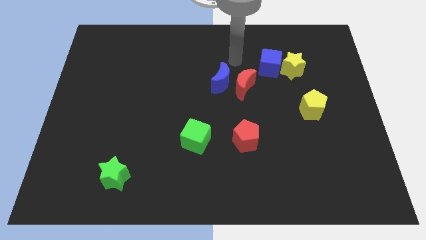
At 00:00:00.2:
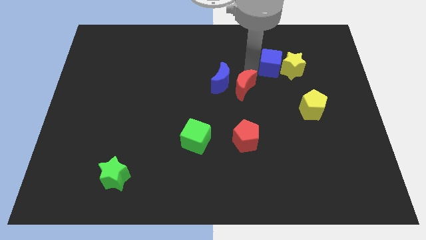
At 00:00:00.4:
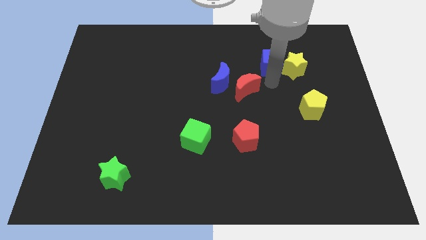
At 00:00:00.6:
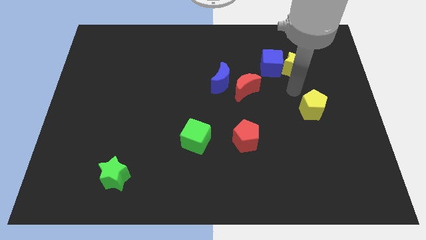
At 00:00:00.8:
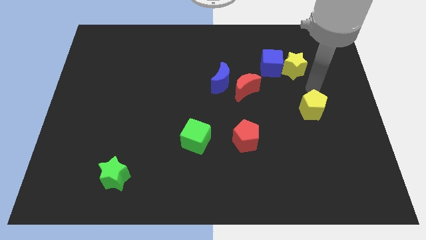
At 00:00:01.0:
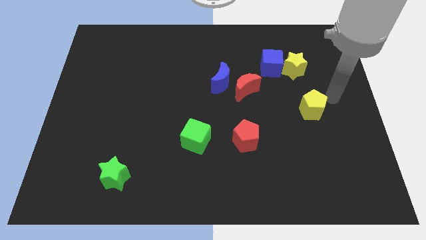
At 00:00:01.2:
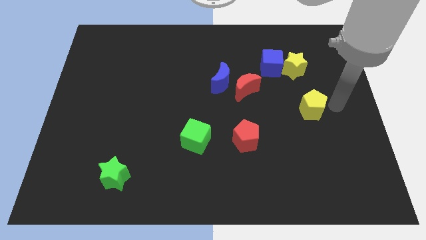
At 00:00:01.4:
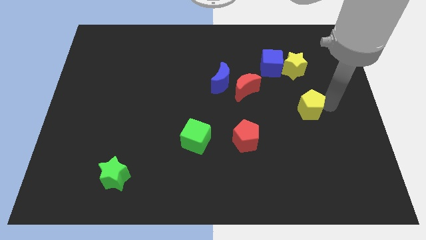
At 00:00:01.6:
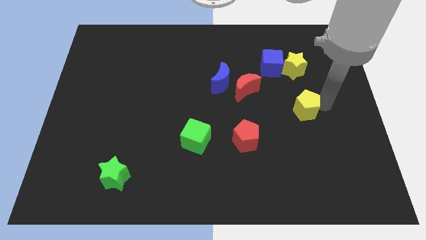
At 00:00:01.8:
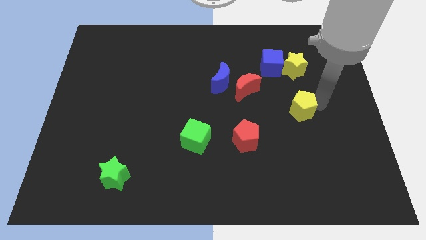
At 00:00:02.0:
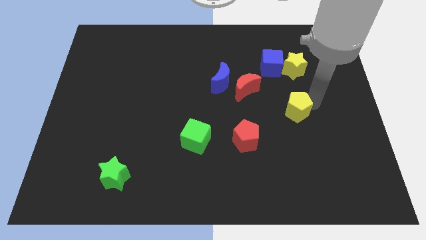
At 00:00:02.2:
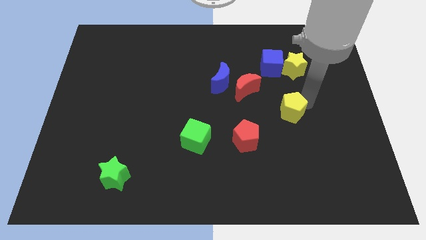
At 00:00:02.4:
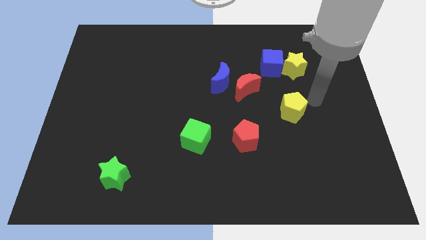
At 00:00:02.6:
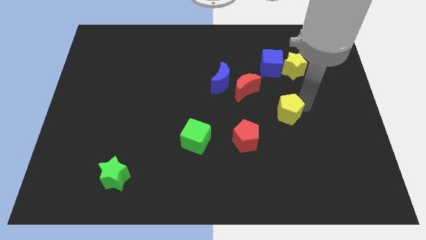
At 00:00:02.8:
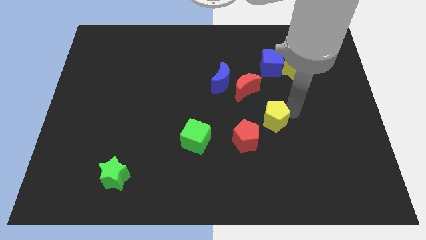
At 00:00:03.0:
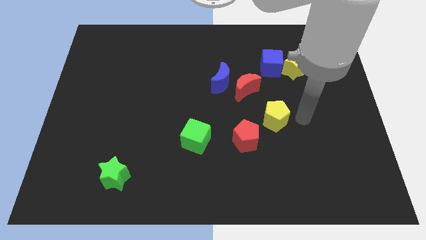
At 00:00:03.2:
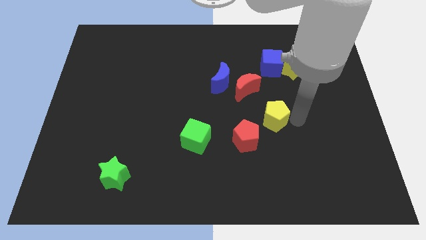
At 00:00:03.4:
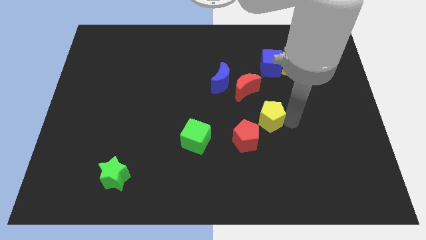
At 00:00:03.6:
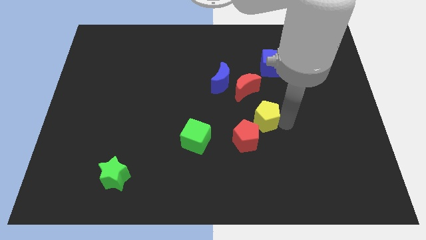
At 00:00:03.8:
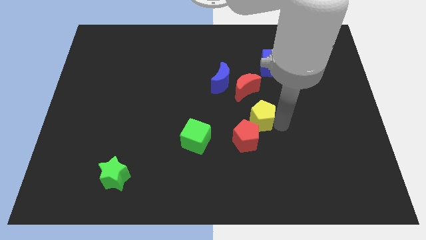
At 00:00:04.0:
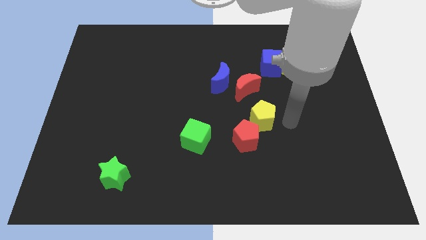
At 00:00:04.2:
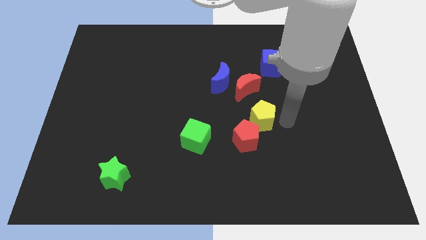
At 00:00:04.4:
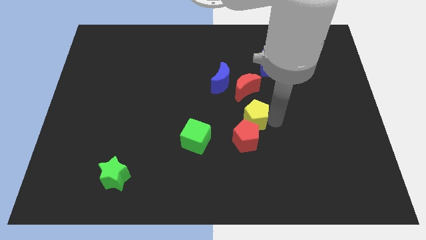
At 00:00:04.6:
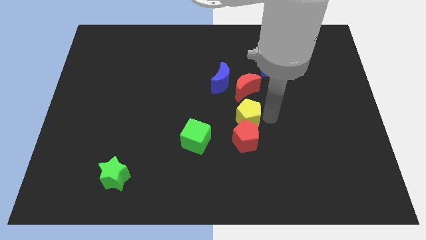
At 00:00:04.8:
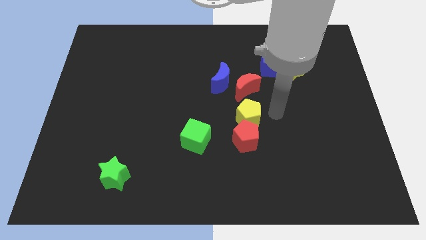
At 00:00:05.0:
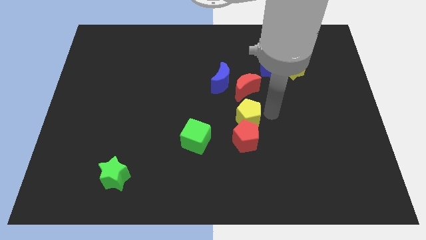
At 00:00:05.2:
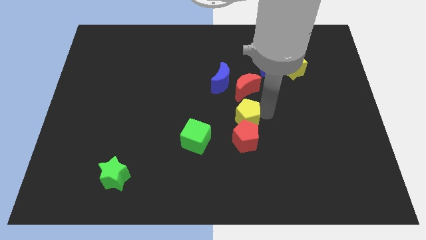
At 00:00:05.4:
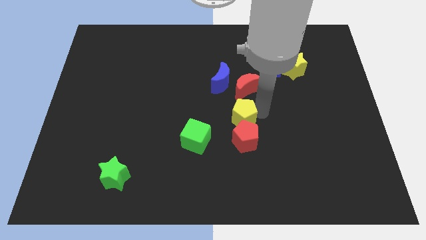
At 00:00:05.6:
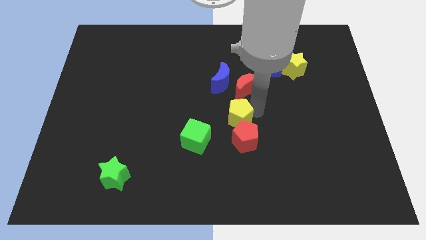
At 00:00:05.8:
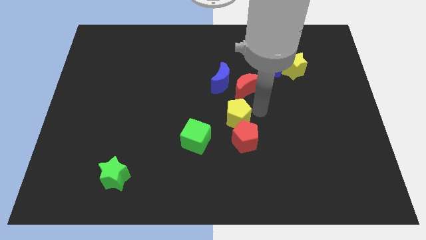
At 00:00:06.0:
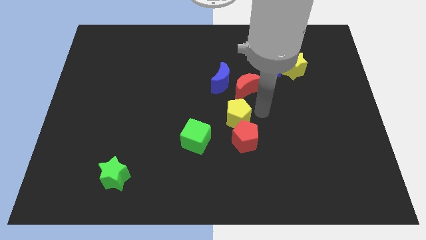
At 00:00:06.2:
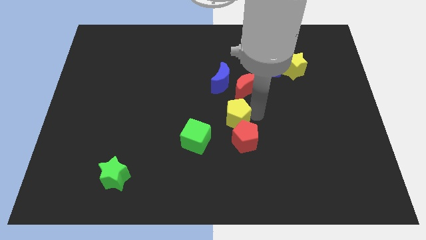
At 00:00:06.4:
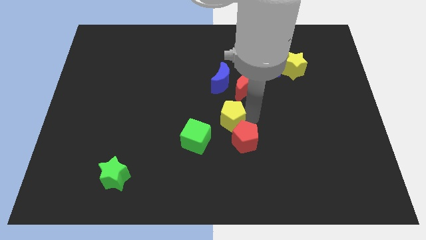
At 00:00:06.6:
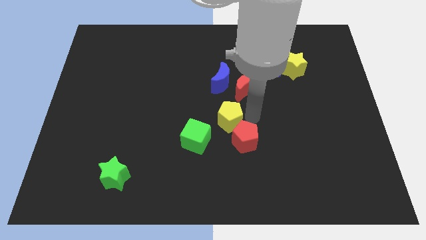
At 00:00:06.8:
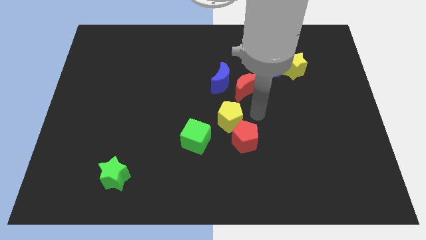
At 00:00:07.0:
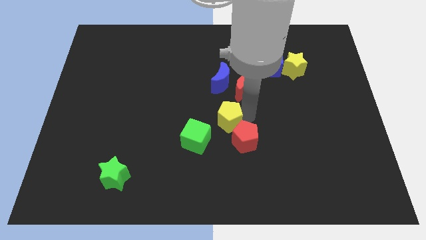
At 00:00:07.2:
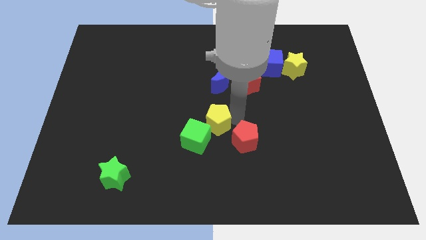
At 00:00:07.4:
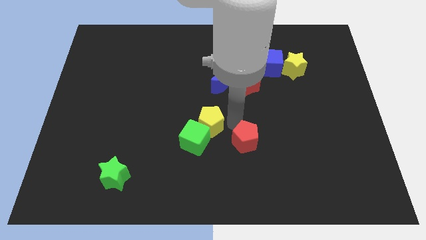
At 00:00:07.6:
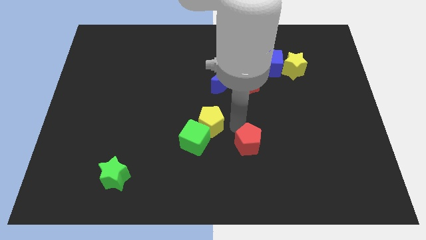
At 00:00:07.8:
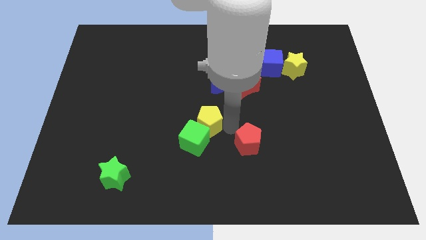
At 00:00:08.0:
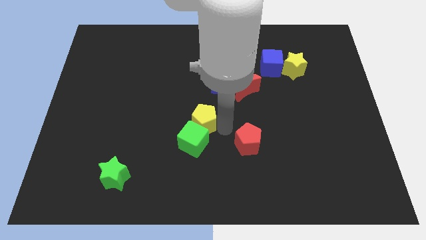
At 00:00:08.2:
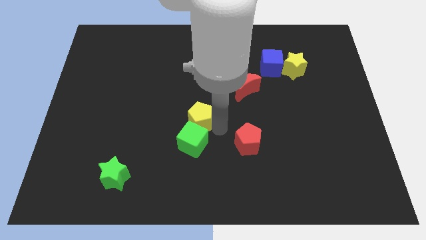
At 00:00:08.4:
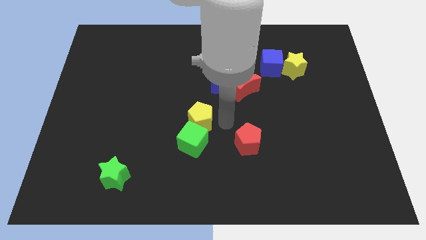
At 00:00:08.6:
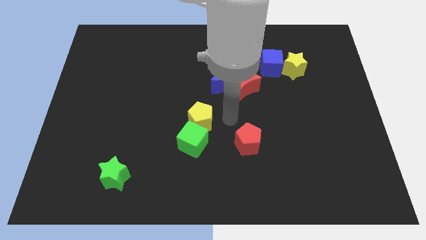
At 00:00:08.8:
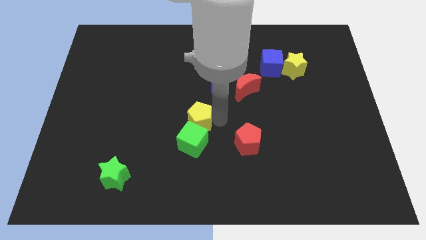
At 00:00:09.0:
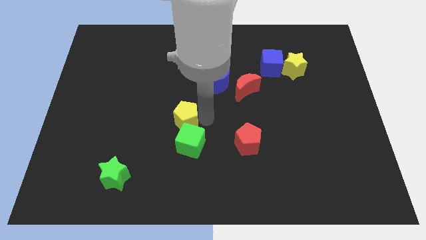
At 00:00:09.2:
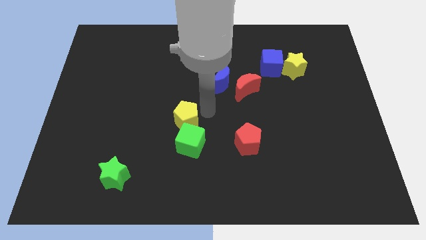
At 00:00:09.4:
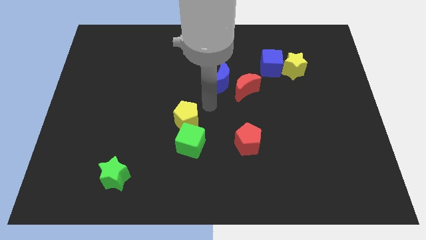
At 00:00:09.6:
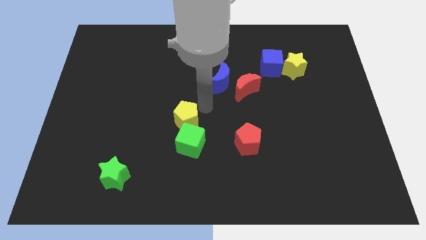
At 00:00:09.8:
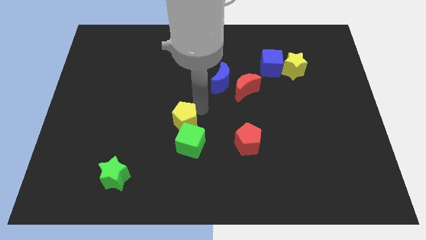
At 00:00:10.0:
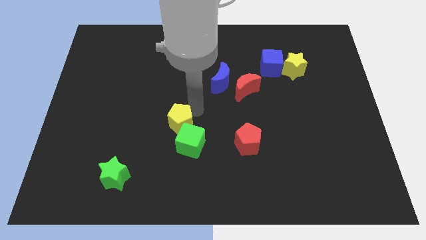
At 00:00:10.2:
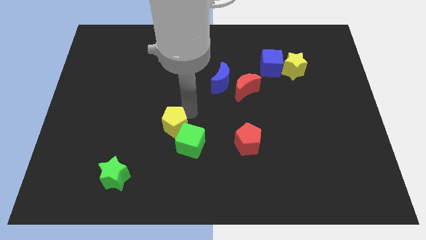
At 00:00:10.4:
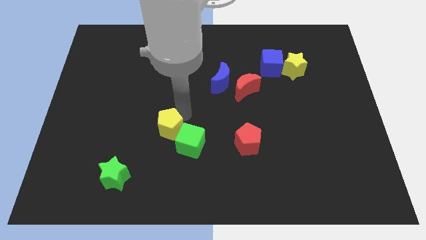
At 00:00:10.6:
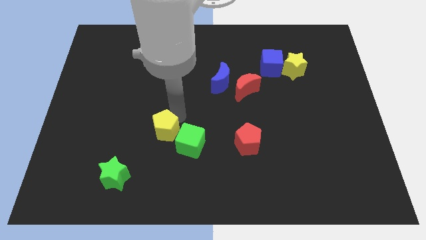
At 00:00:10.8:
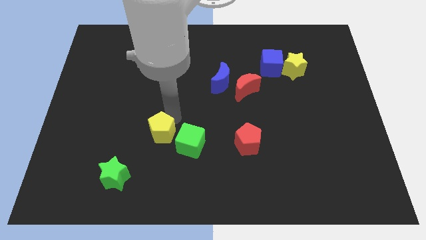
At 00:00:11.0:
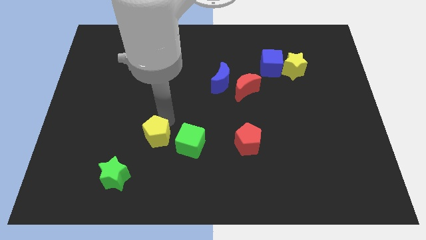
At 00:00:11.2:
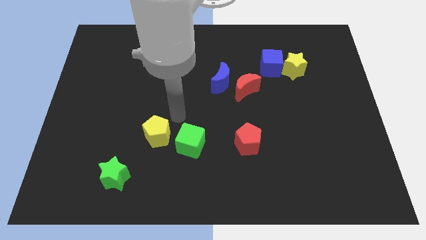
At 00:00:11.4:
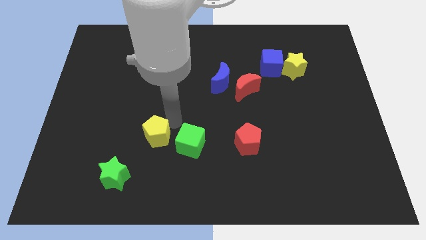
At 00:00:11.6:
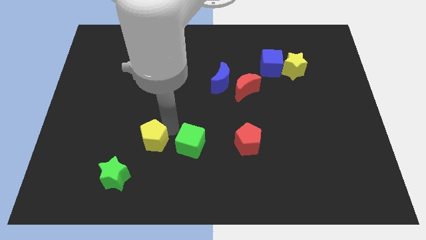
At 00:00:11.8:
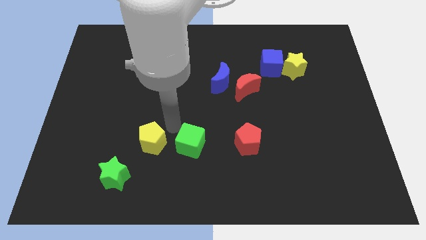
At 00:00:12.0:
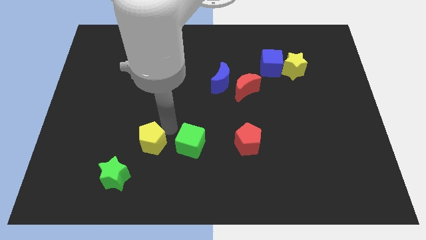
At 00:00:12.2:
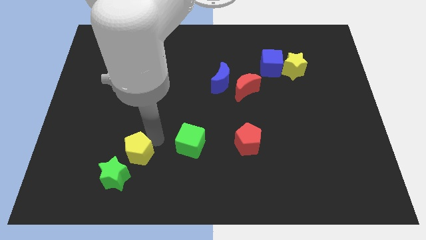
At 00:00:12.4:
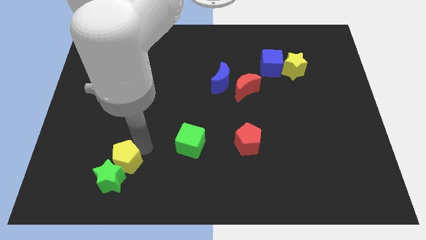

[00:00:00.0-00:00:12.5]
move the yellow pentagon close to the green star

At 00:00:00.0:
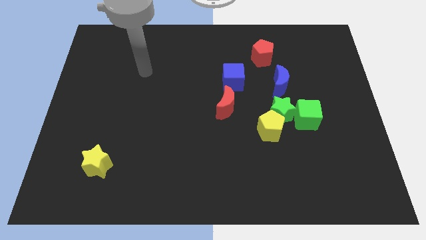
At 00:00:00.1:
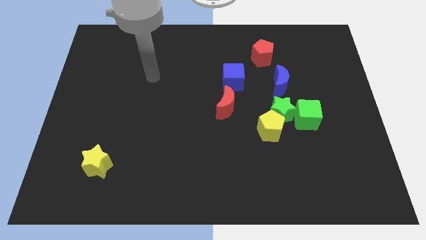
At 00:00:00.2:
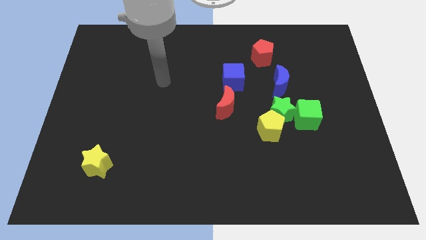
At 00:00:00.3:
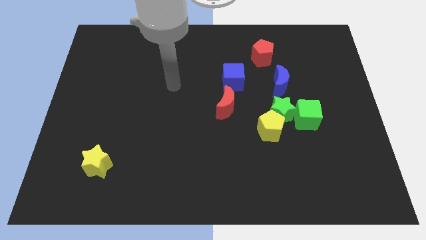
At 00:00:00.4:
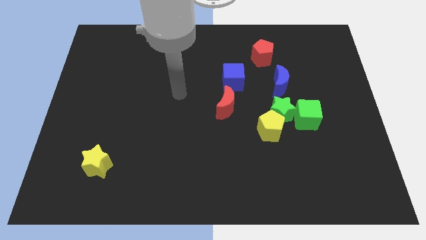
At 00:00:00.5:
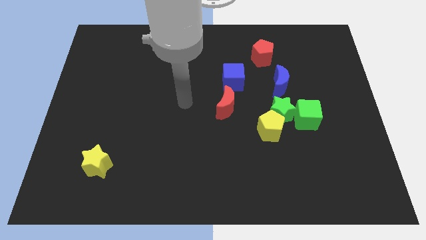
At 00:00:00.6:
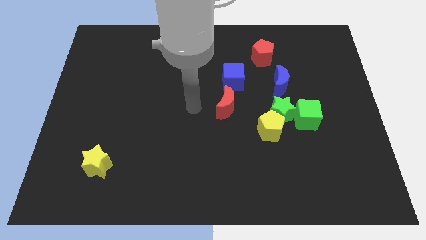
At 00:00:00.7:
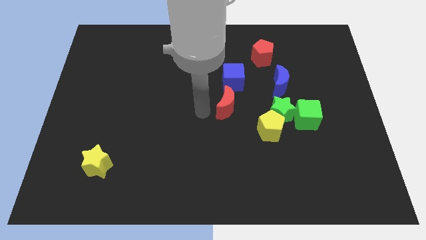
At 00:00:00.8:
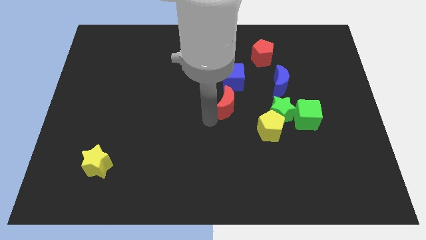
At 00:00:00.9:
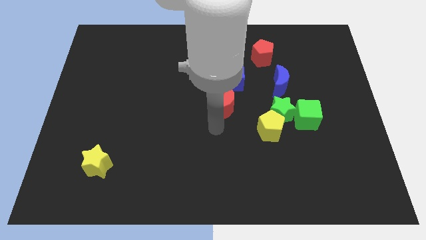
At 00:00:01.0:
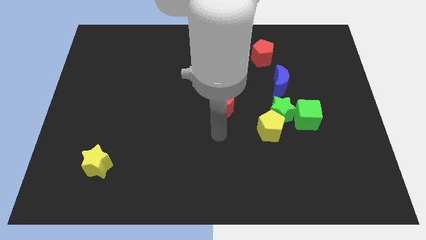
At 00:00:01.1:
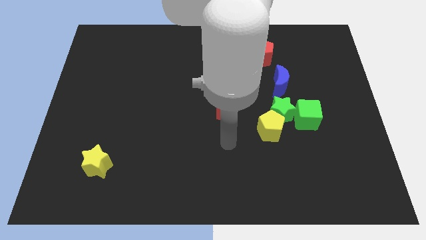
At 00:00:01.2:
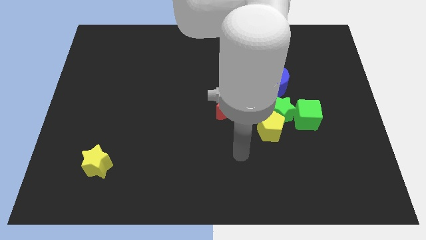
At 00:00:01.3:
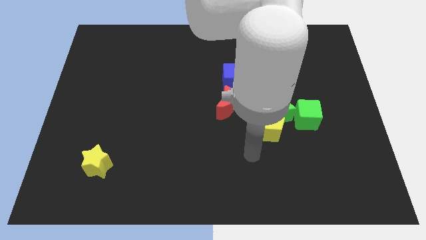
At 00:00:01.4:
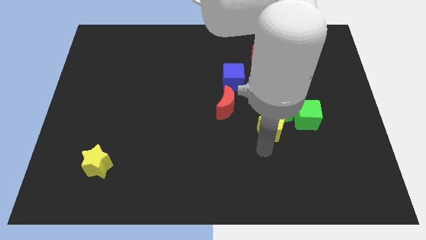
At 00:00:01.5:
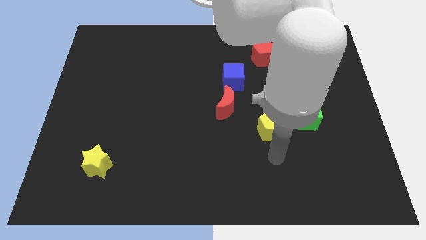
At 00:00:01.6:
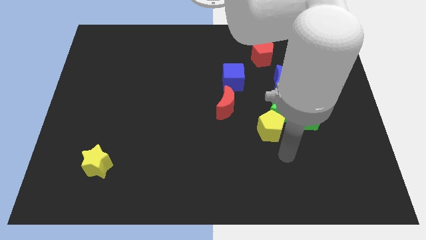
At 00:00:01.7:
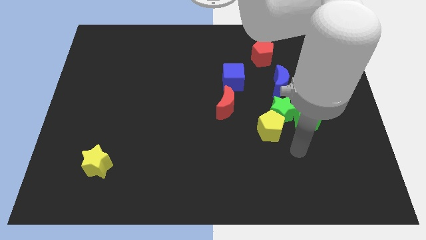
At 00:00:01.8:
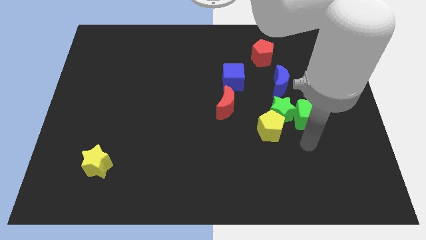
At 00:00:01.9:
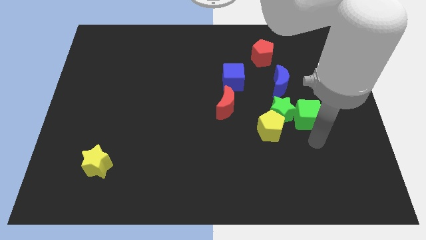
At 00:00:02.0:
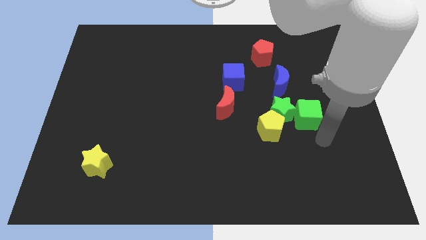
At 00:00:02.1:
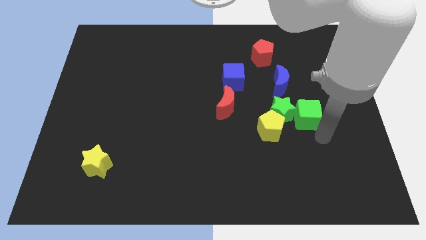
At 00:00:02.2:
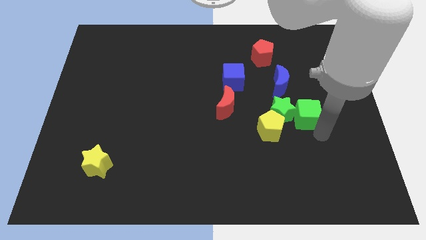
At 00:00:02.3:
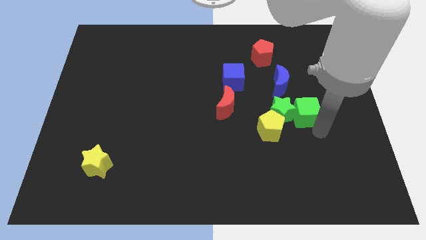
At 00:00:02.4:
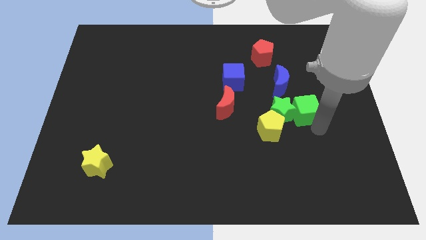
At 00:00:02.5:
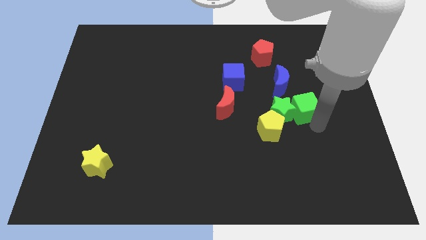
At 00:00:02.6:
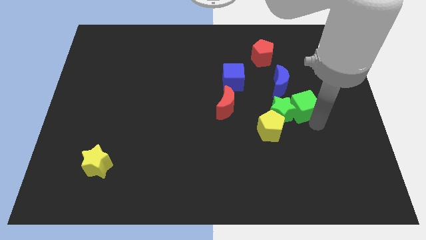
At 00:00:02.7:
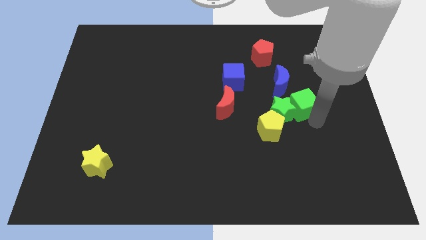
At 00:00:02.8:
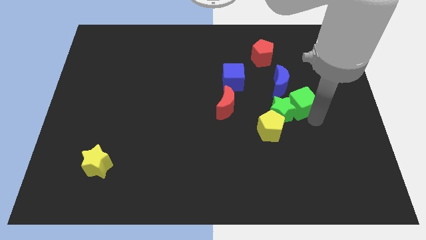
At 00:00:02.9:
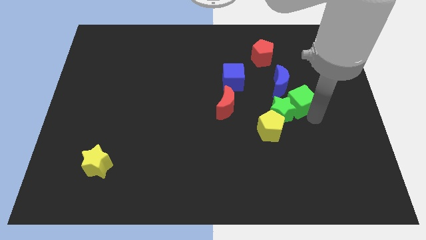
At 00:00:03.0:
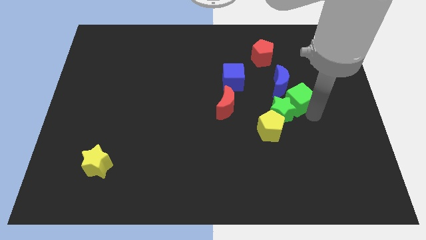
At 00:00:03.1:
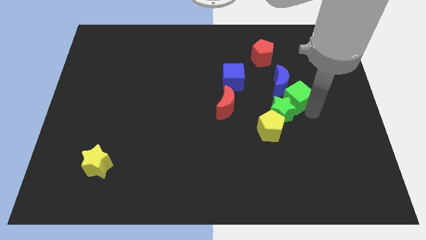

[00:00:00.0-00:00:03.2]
push the green cube next to the blue moon
